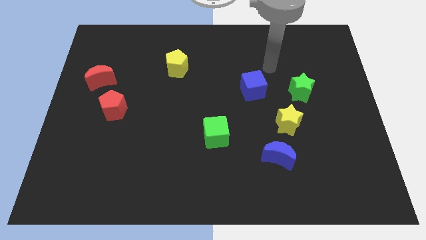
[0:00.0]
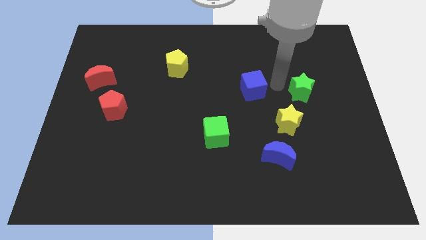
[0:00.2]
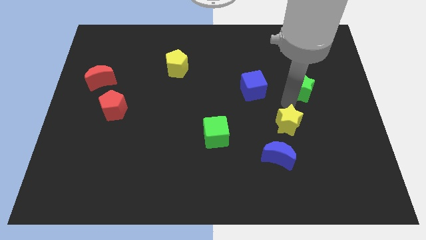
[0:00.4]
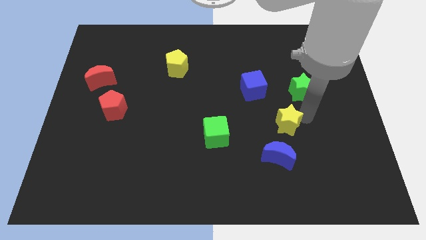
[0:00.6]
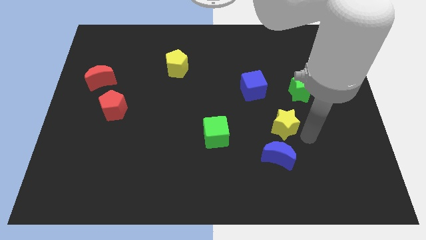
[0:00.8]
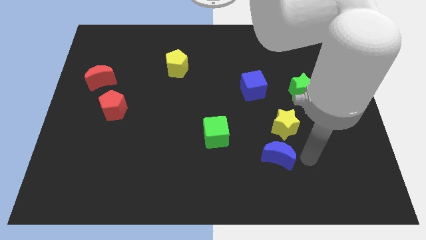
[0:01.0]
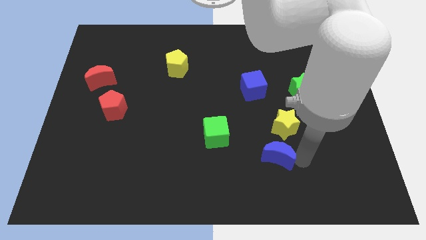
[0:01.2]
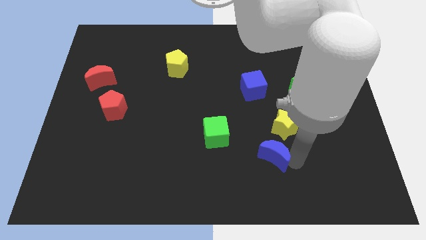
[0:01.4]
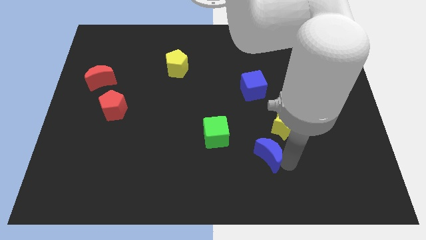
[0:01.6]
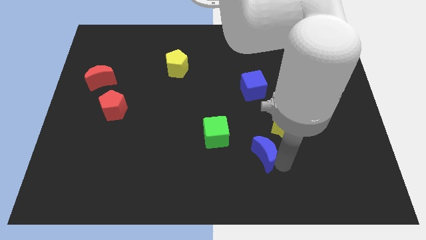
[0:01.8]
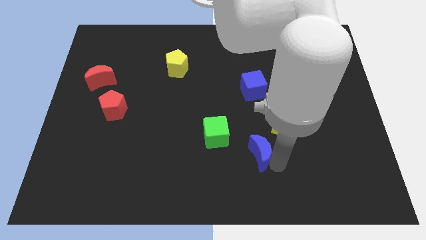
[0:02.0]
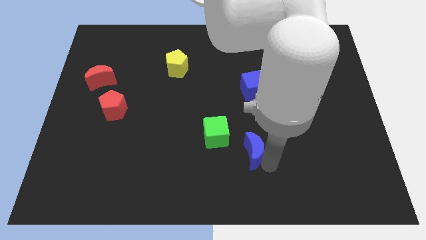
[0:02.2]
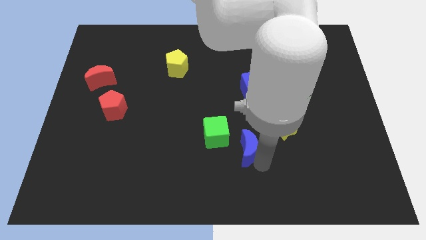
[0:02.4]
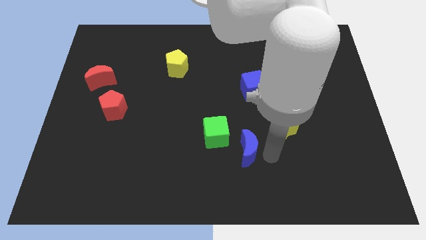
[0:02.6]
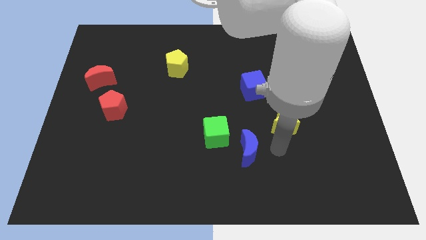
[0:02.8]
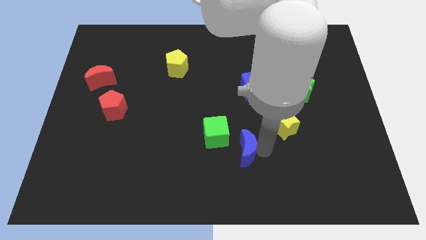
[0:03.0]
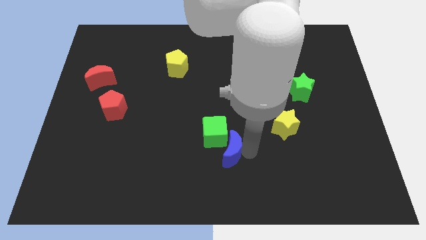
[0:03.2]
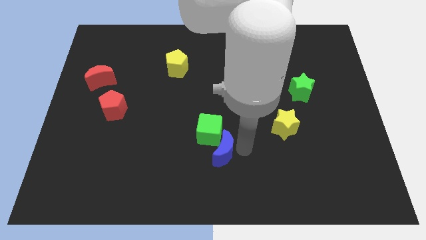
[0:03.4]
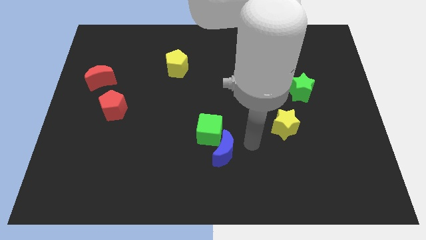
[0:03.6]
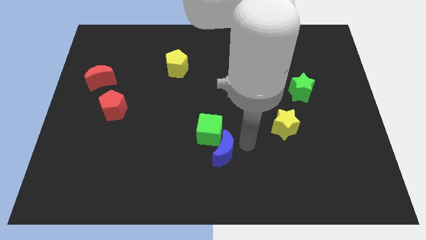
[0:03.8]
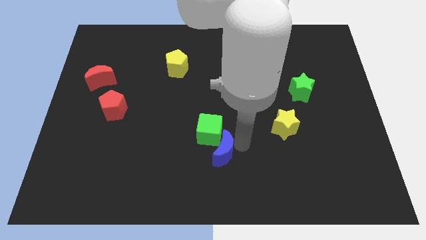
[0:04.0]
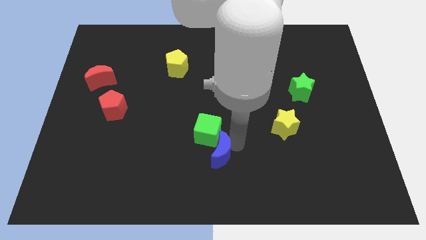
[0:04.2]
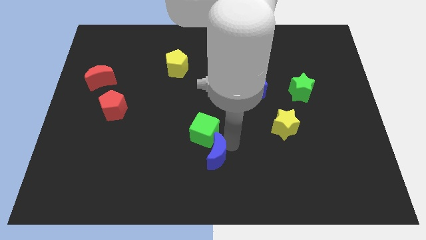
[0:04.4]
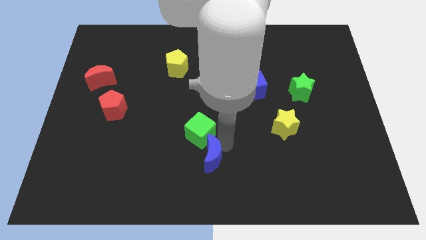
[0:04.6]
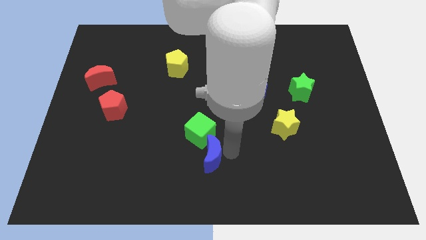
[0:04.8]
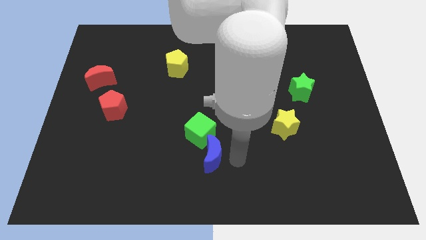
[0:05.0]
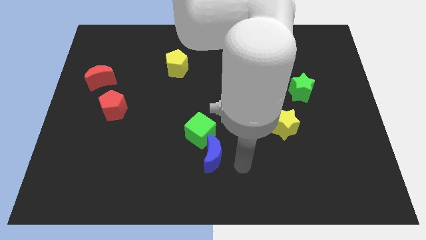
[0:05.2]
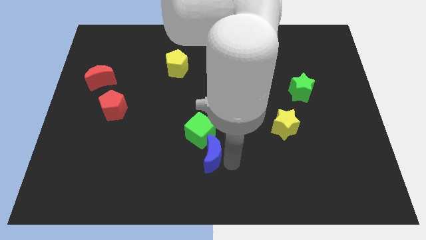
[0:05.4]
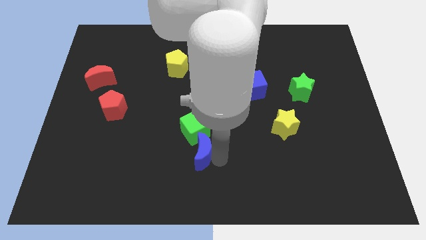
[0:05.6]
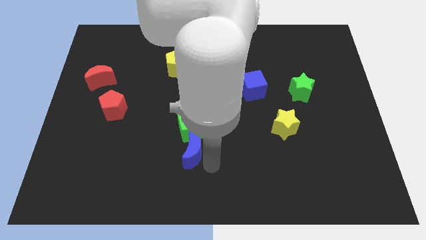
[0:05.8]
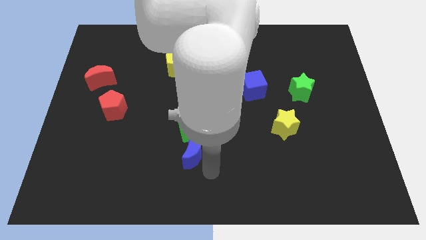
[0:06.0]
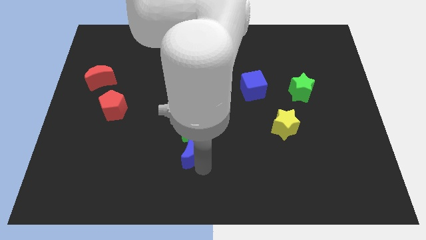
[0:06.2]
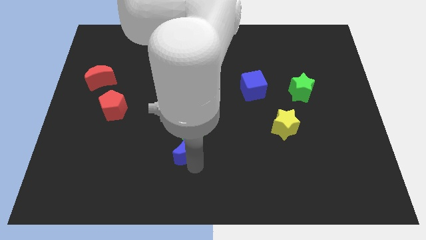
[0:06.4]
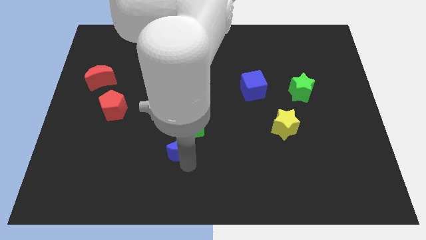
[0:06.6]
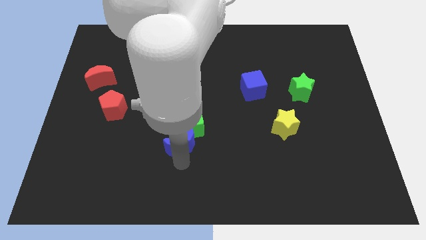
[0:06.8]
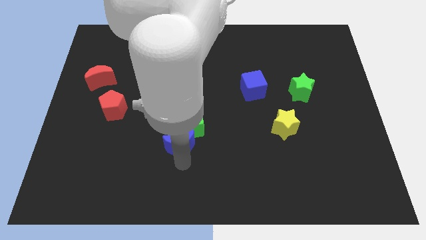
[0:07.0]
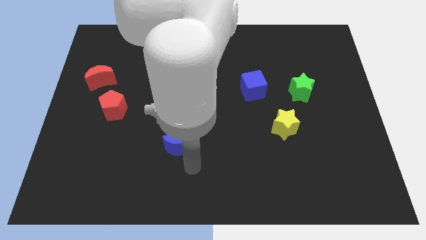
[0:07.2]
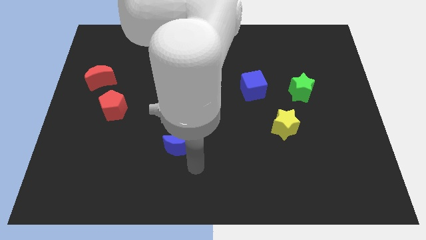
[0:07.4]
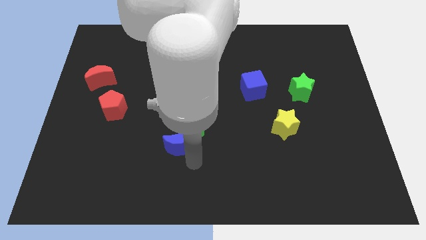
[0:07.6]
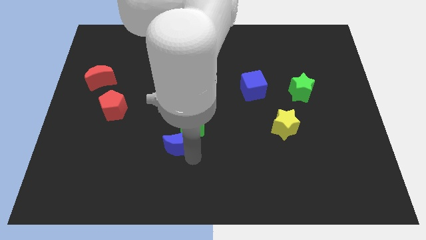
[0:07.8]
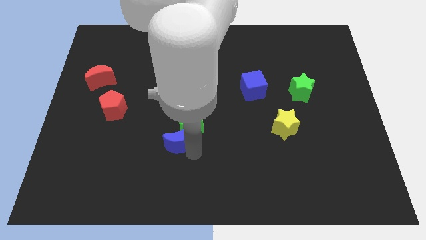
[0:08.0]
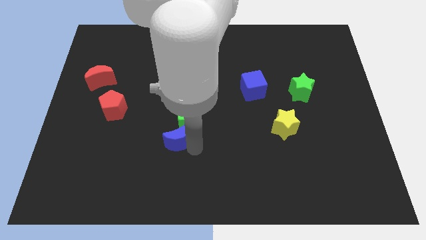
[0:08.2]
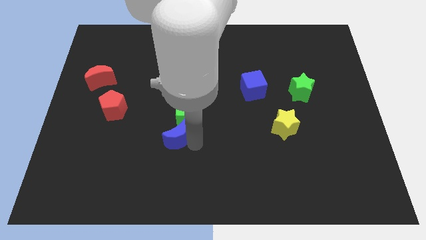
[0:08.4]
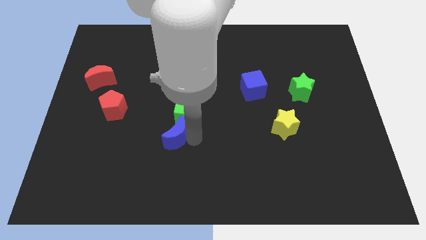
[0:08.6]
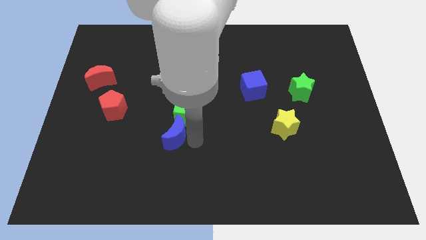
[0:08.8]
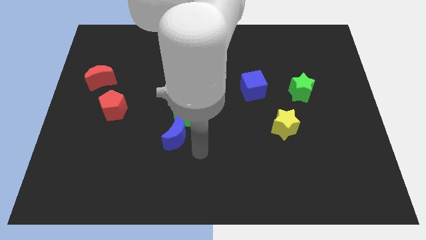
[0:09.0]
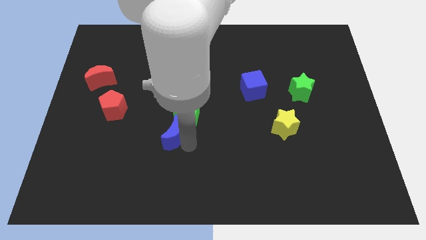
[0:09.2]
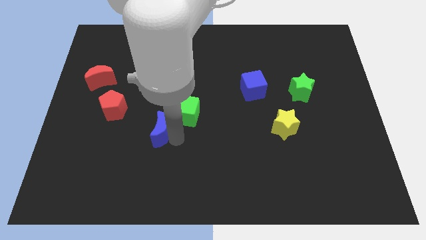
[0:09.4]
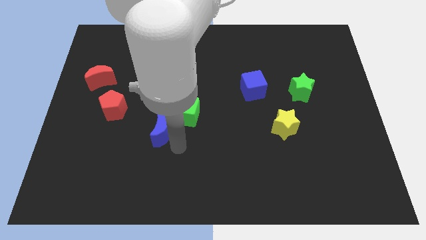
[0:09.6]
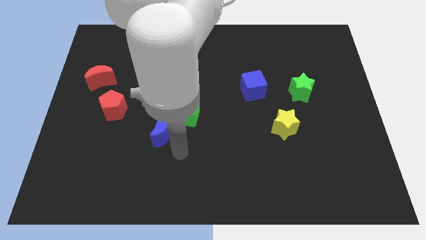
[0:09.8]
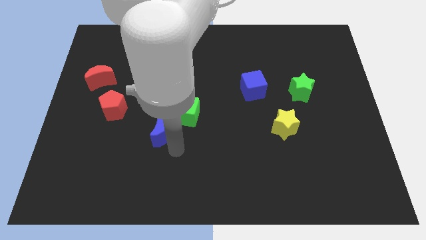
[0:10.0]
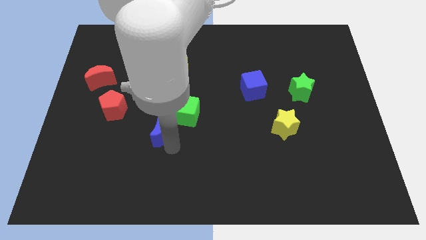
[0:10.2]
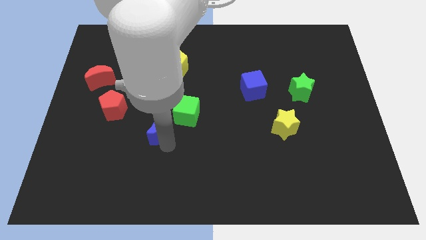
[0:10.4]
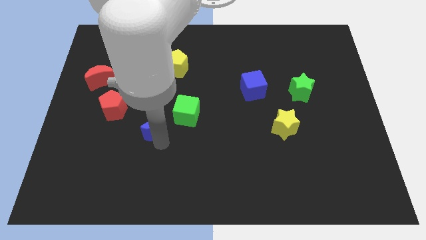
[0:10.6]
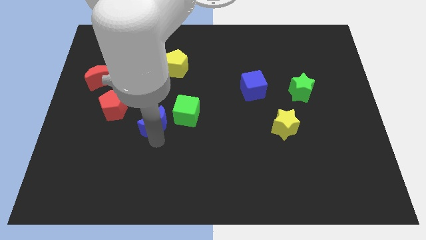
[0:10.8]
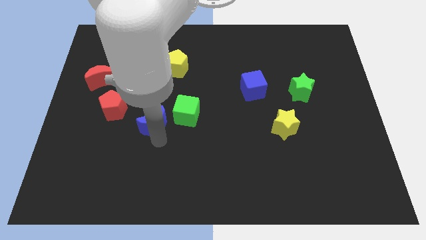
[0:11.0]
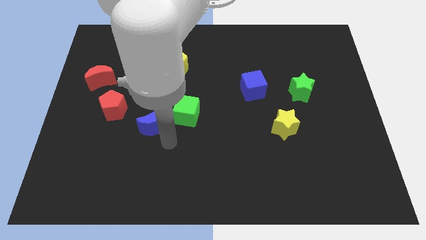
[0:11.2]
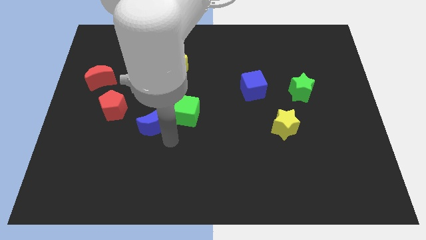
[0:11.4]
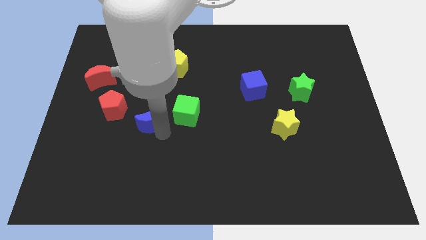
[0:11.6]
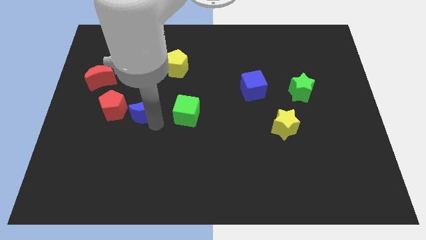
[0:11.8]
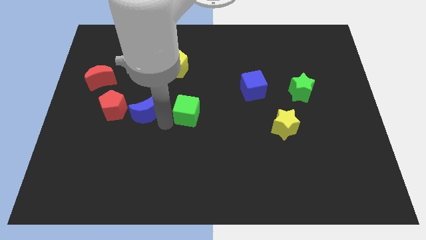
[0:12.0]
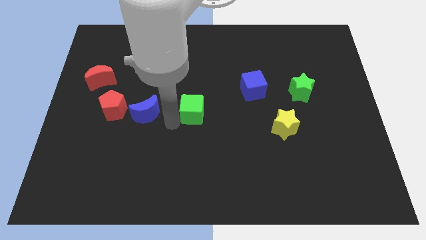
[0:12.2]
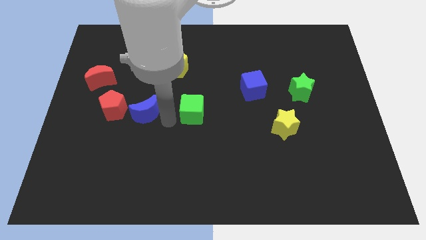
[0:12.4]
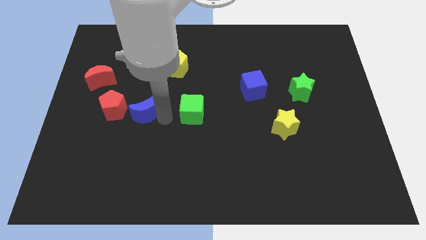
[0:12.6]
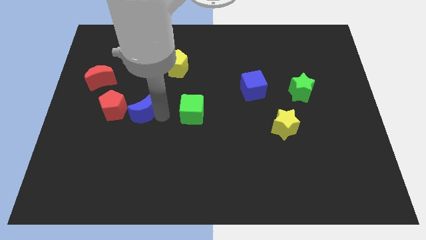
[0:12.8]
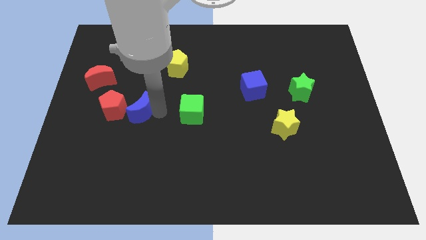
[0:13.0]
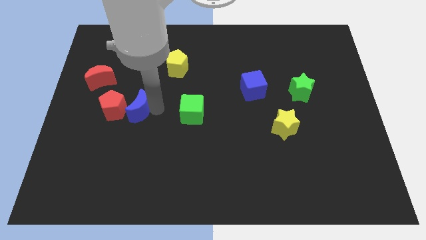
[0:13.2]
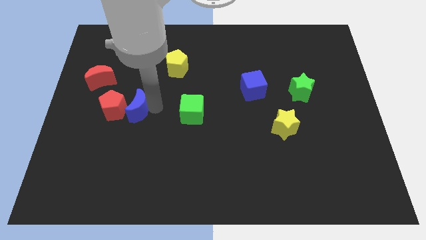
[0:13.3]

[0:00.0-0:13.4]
move the blue moon next to the red pentagon
